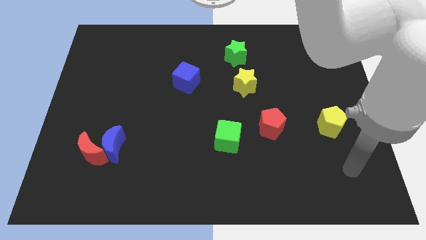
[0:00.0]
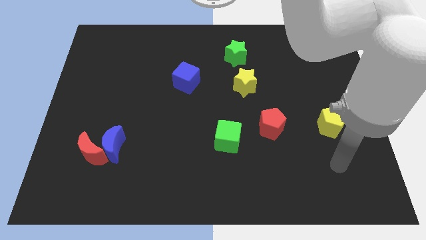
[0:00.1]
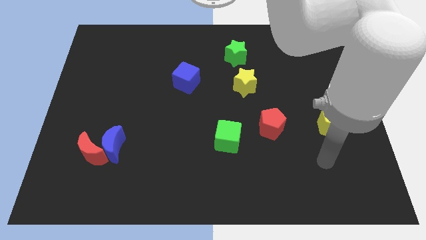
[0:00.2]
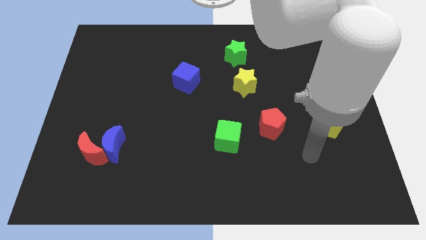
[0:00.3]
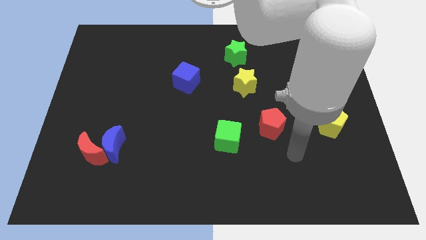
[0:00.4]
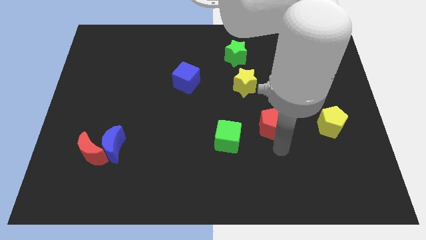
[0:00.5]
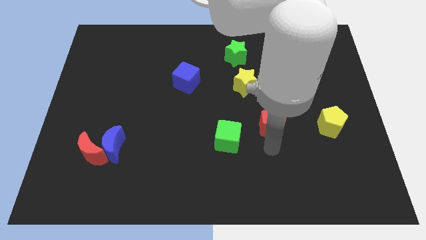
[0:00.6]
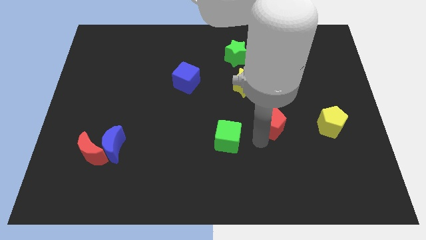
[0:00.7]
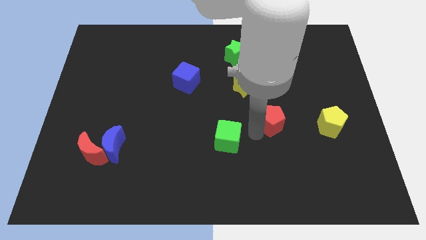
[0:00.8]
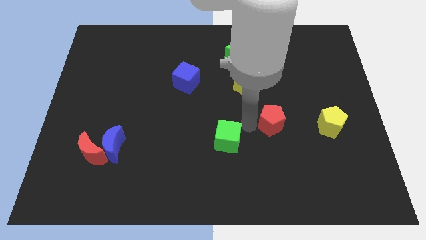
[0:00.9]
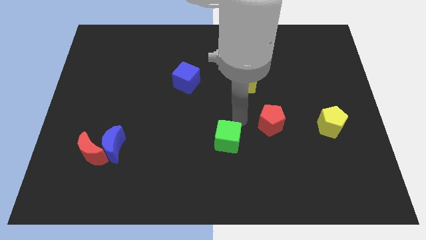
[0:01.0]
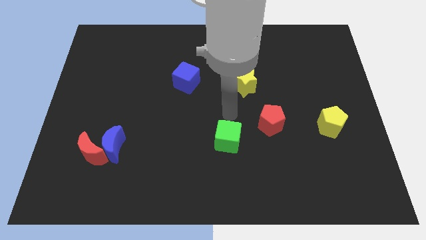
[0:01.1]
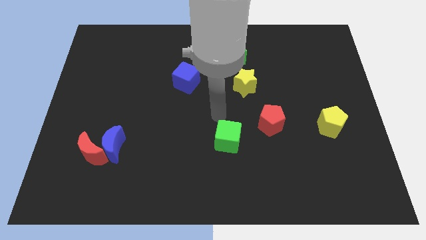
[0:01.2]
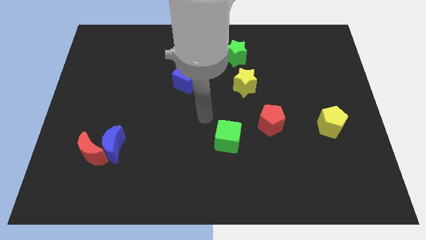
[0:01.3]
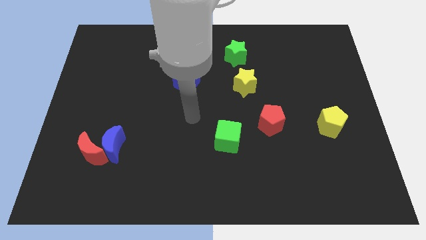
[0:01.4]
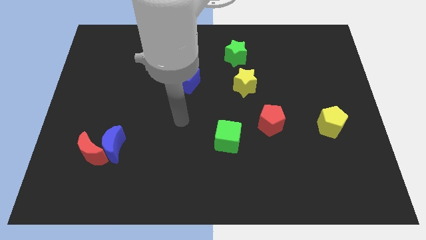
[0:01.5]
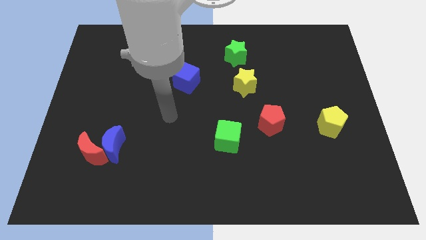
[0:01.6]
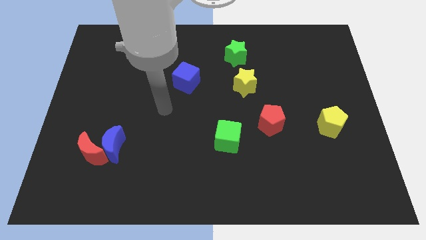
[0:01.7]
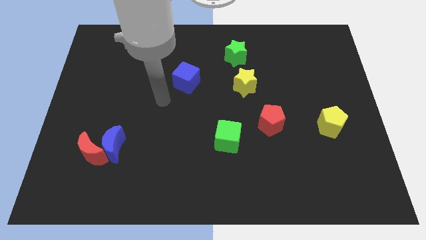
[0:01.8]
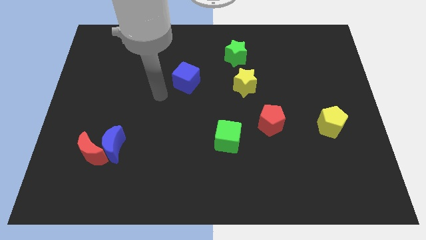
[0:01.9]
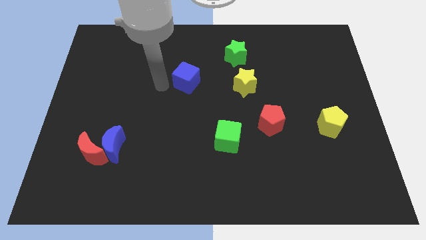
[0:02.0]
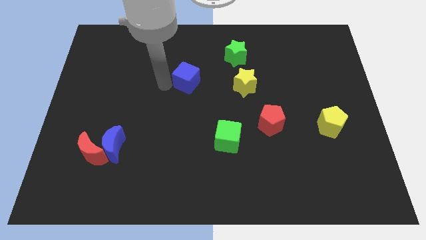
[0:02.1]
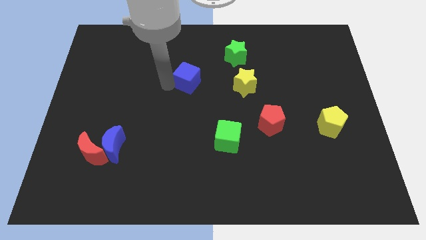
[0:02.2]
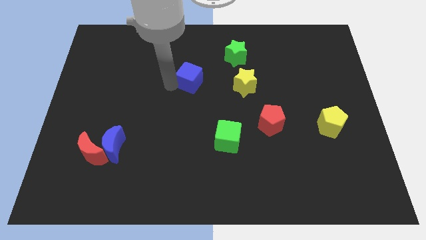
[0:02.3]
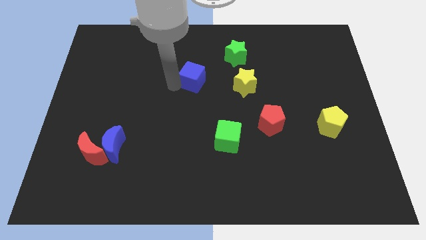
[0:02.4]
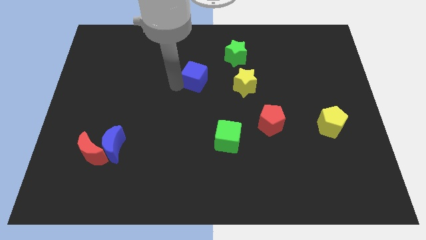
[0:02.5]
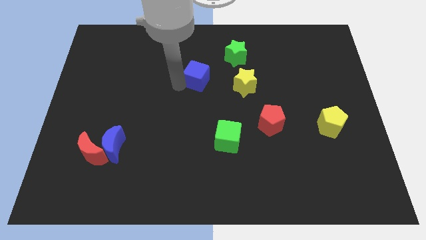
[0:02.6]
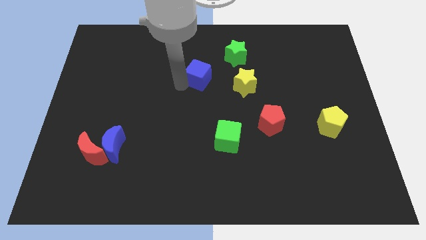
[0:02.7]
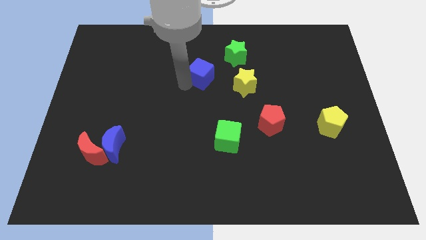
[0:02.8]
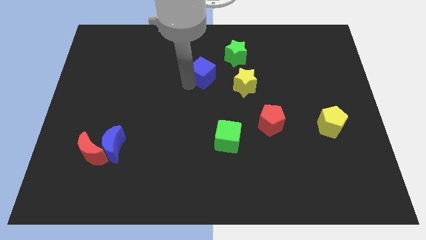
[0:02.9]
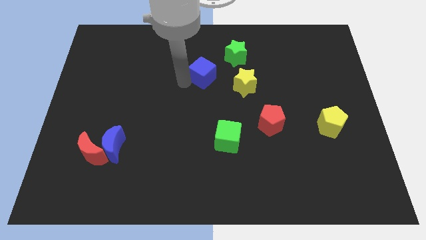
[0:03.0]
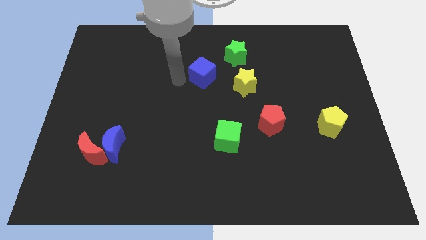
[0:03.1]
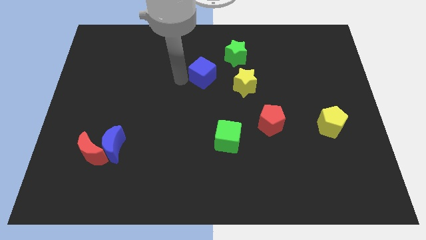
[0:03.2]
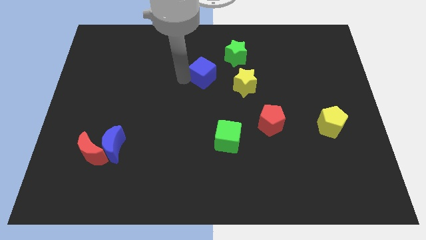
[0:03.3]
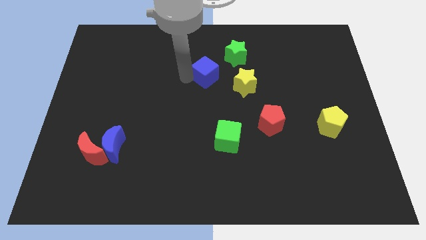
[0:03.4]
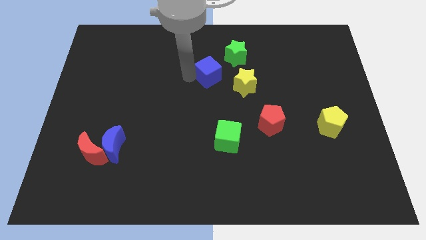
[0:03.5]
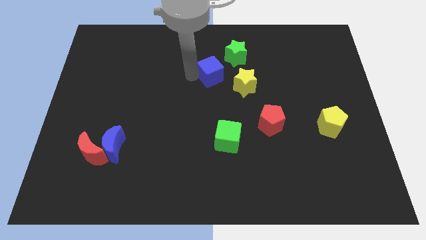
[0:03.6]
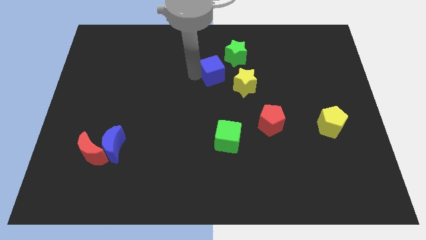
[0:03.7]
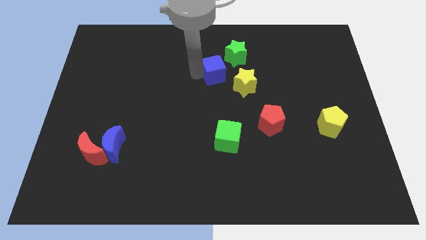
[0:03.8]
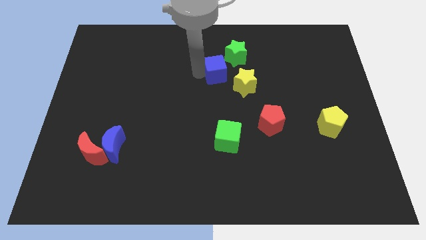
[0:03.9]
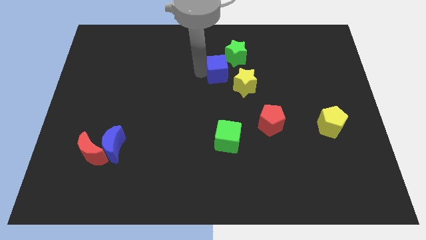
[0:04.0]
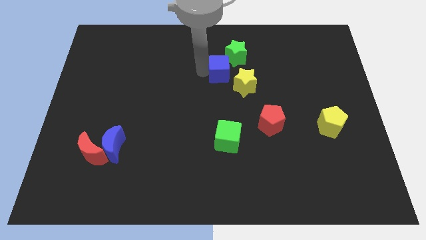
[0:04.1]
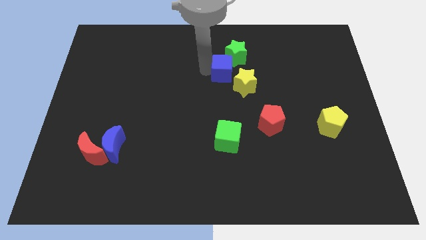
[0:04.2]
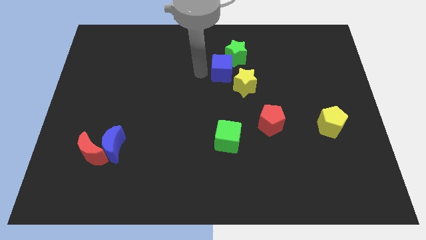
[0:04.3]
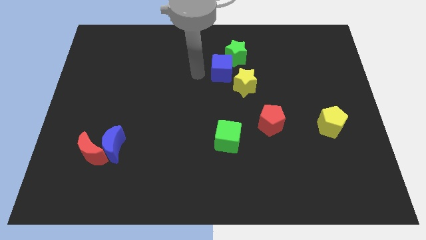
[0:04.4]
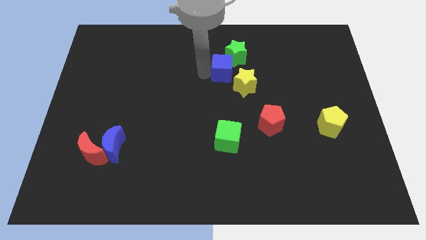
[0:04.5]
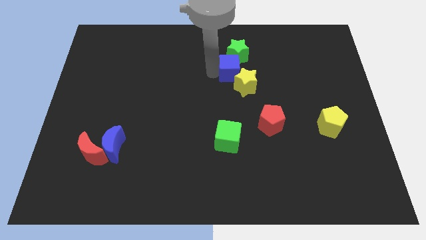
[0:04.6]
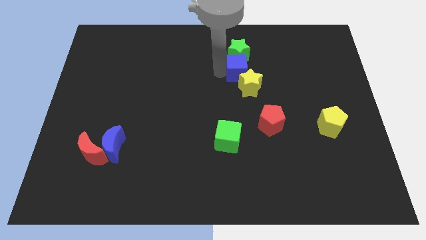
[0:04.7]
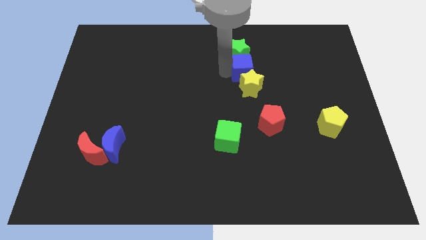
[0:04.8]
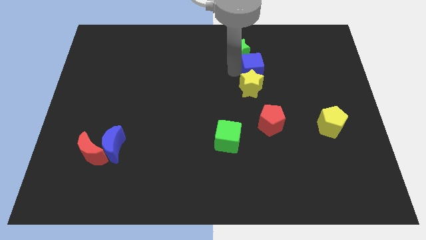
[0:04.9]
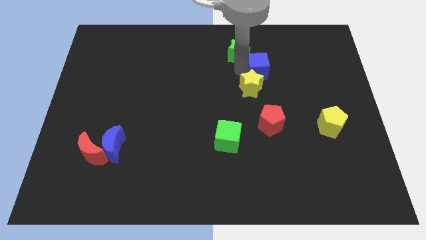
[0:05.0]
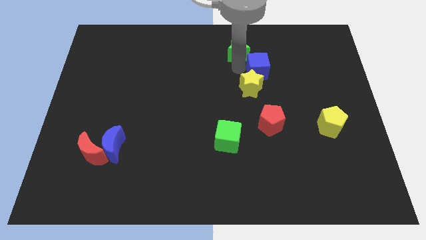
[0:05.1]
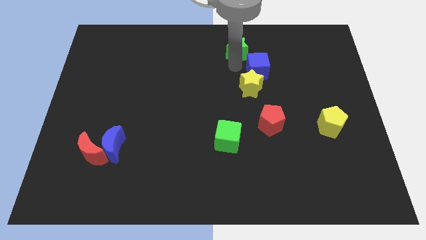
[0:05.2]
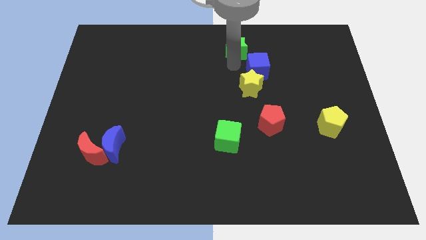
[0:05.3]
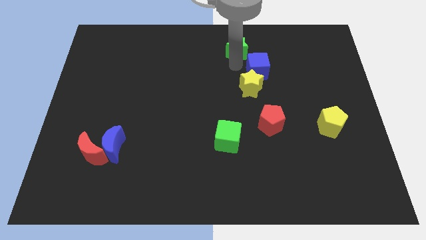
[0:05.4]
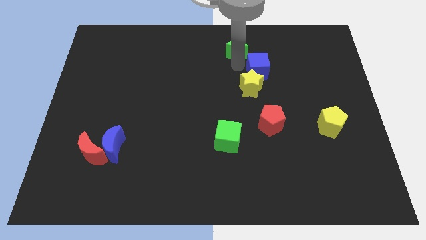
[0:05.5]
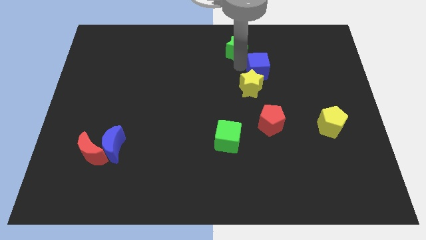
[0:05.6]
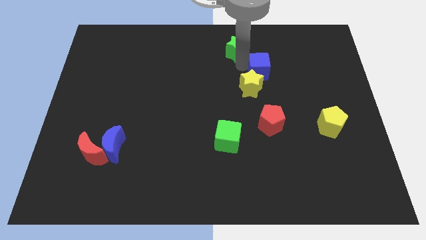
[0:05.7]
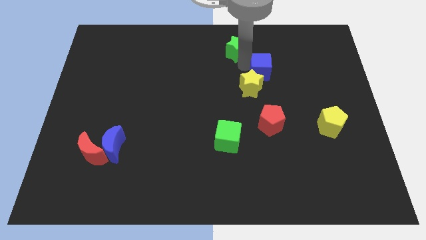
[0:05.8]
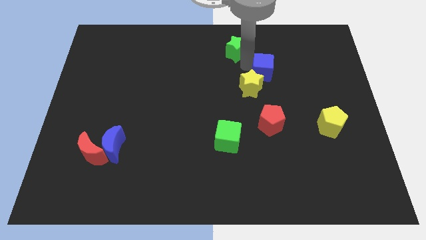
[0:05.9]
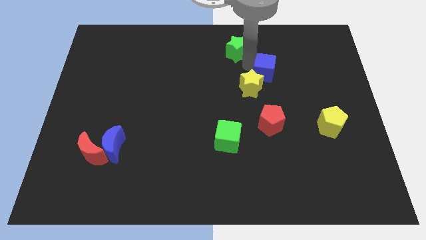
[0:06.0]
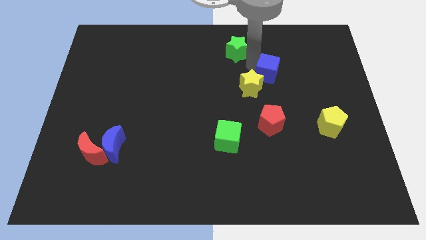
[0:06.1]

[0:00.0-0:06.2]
move the blue cube right

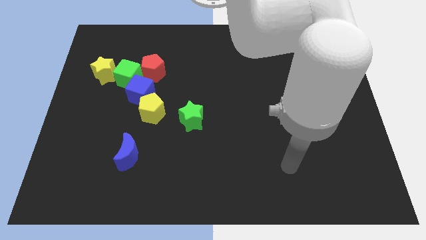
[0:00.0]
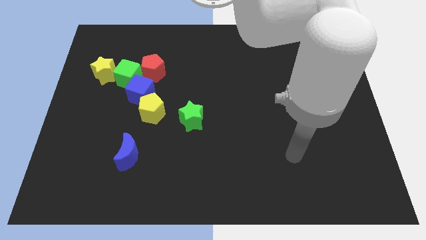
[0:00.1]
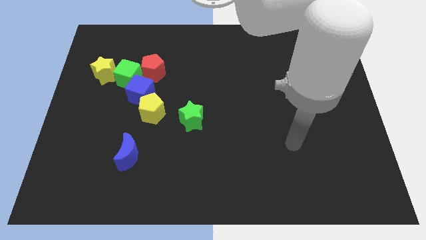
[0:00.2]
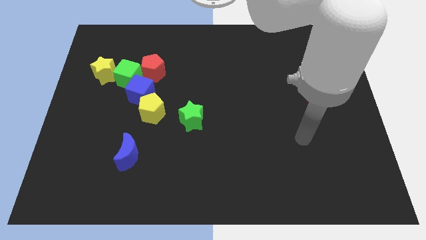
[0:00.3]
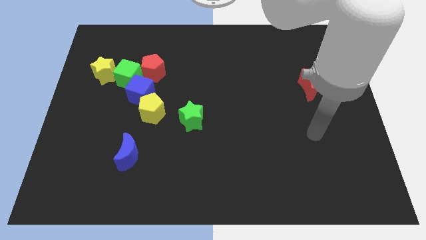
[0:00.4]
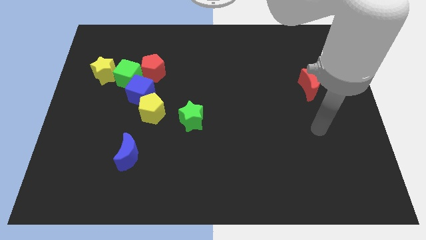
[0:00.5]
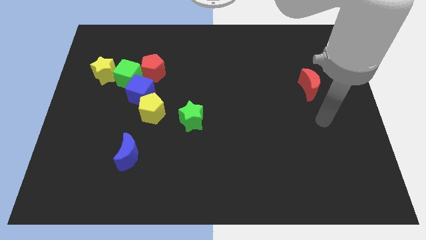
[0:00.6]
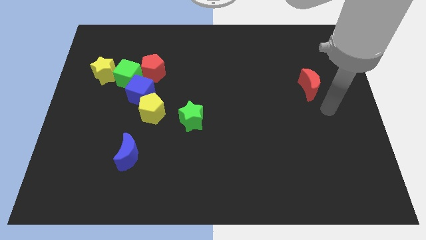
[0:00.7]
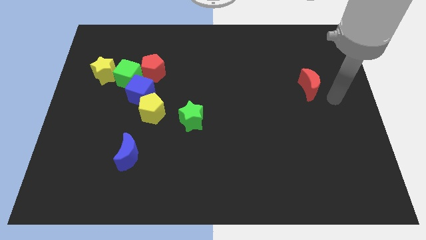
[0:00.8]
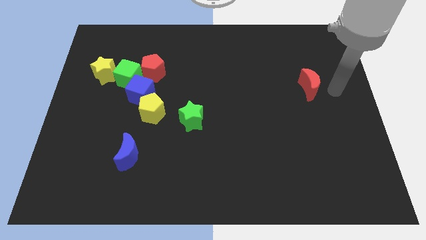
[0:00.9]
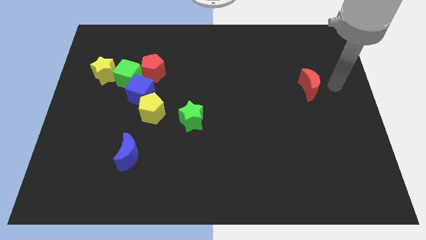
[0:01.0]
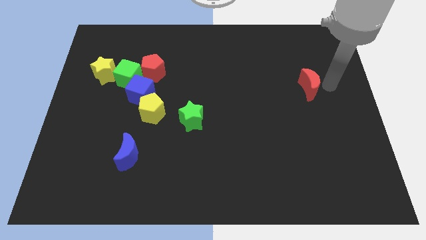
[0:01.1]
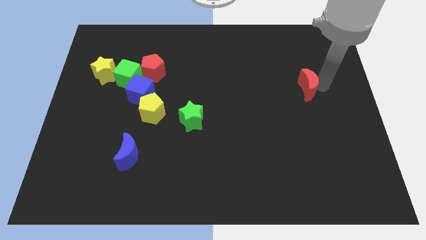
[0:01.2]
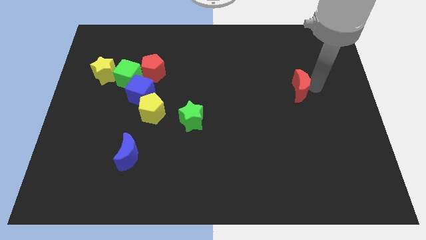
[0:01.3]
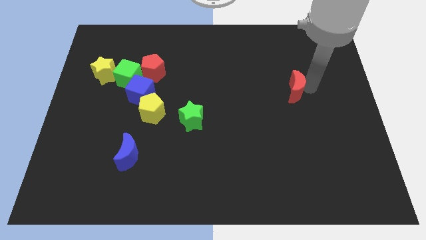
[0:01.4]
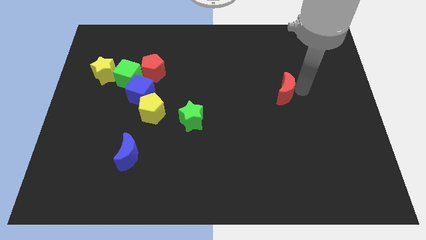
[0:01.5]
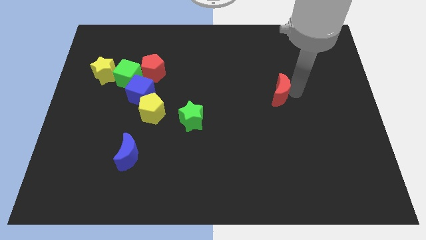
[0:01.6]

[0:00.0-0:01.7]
slightly push the red moon left

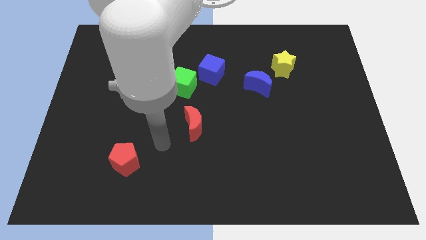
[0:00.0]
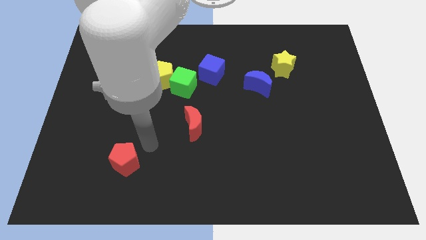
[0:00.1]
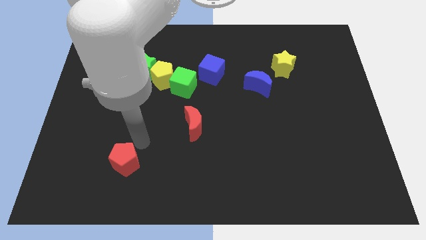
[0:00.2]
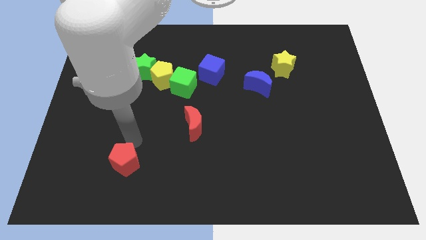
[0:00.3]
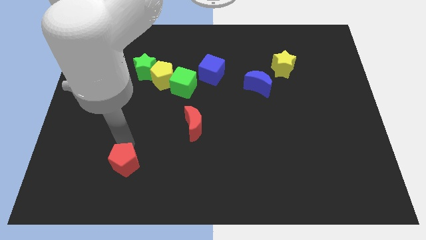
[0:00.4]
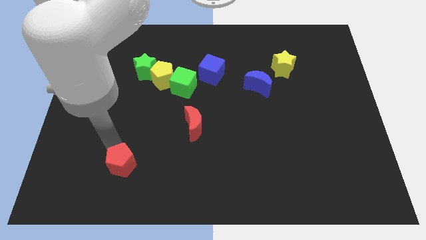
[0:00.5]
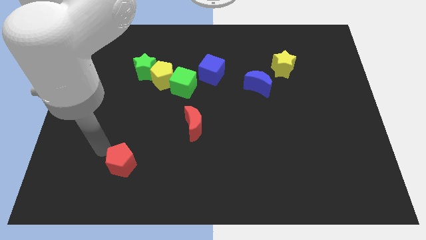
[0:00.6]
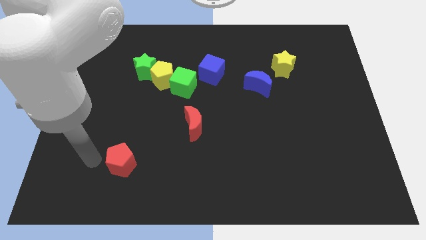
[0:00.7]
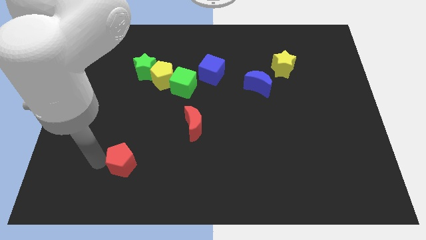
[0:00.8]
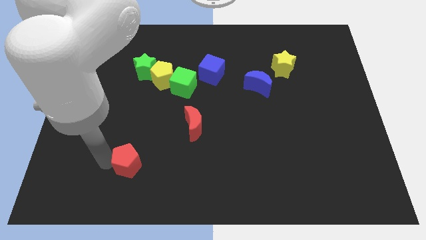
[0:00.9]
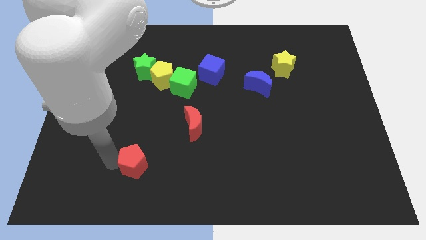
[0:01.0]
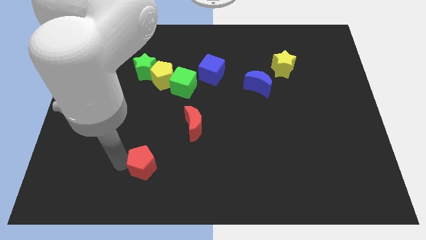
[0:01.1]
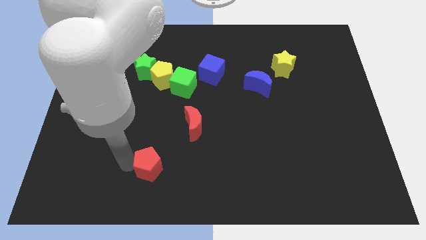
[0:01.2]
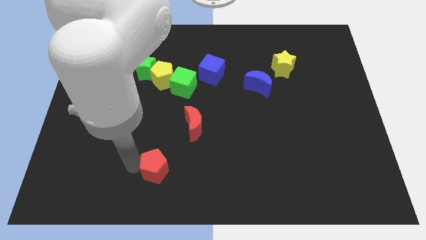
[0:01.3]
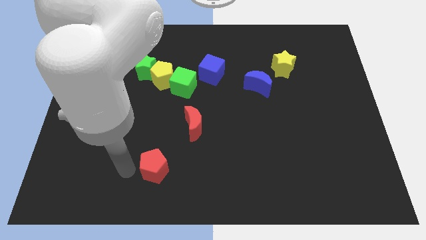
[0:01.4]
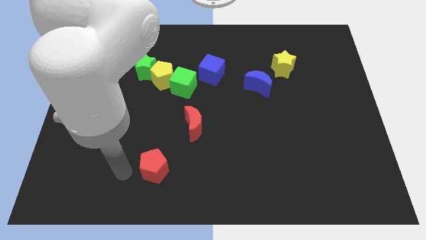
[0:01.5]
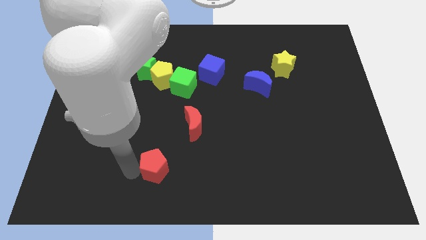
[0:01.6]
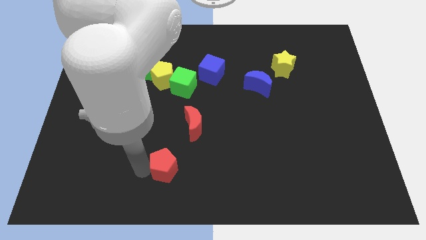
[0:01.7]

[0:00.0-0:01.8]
push the red pentagon a little bit right
